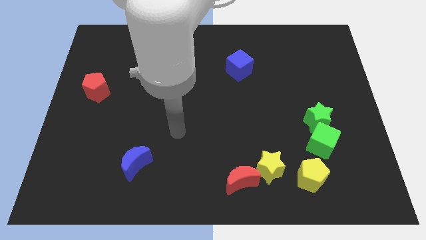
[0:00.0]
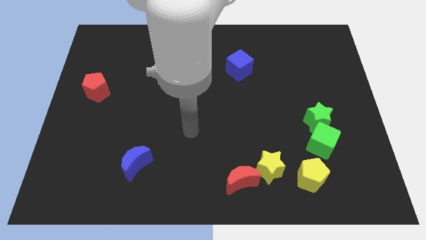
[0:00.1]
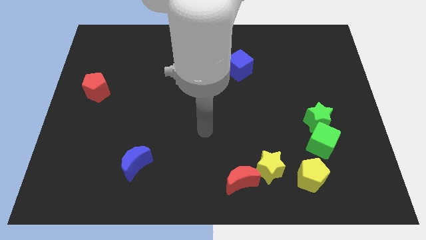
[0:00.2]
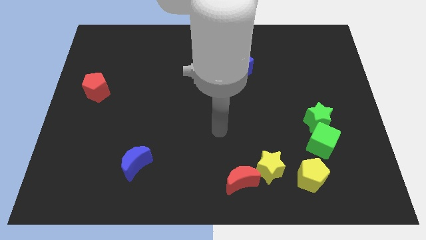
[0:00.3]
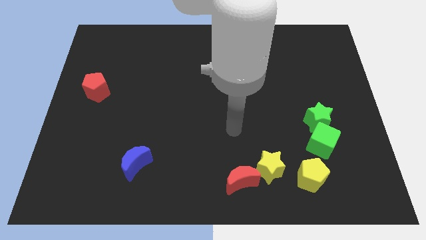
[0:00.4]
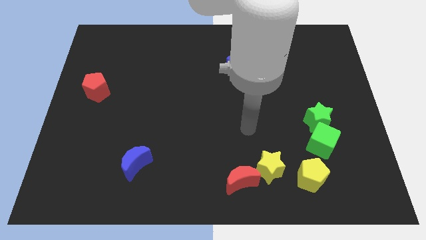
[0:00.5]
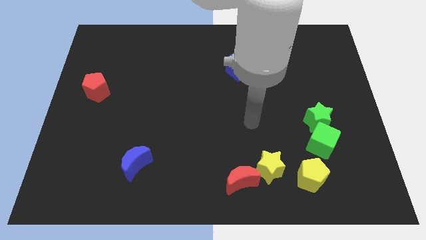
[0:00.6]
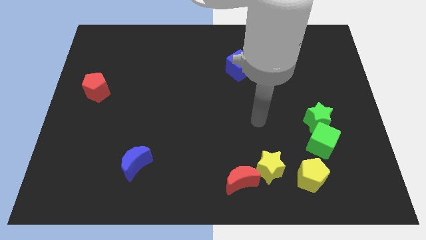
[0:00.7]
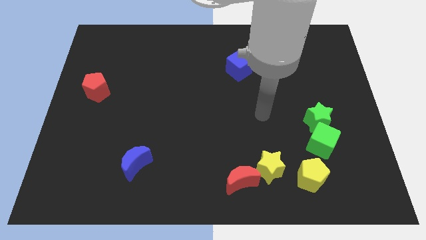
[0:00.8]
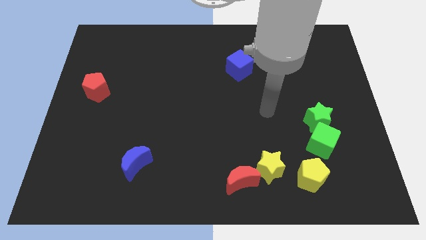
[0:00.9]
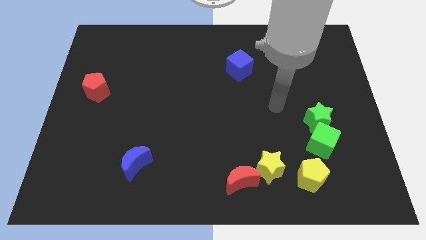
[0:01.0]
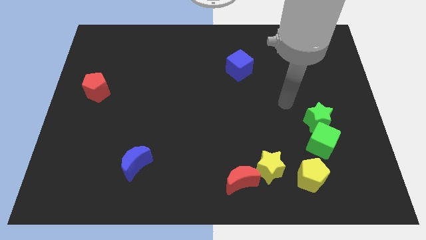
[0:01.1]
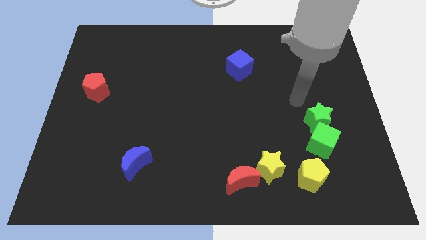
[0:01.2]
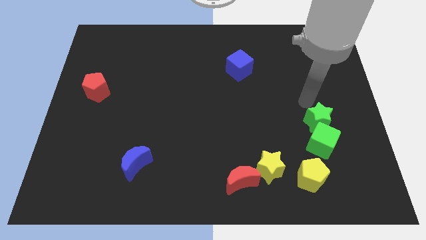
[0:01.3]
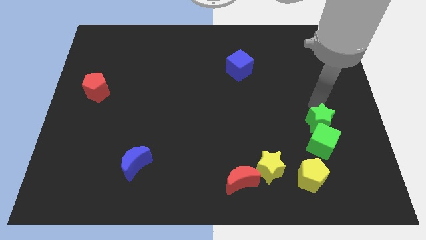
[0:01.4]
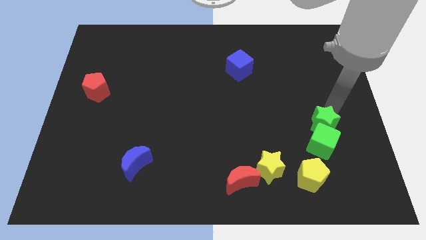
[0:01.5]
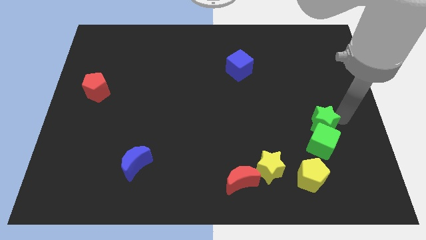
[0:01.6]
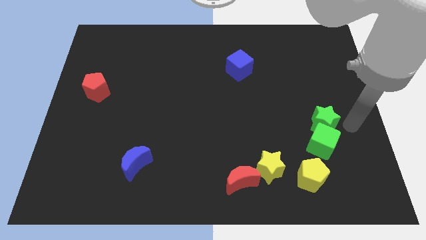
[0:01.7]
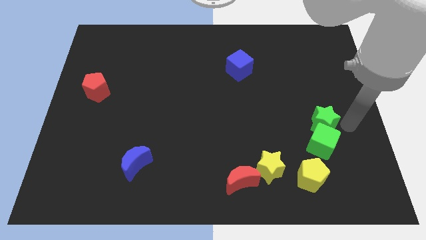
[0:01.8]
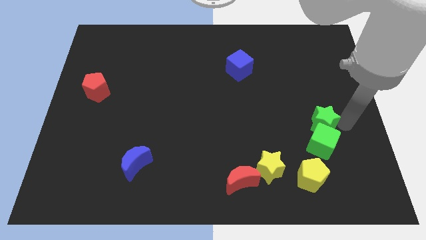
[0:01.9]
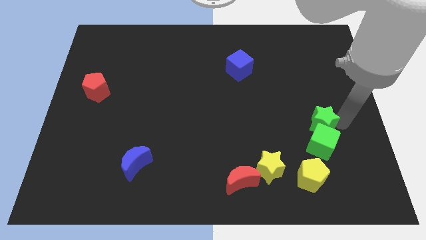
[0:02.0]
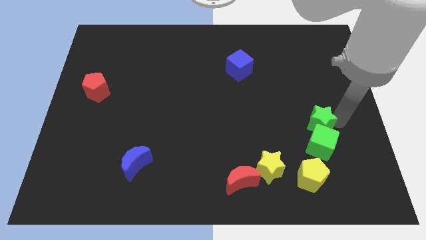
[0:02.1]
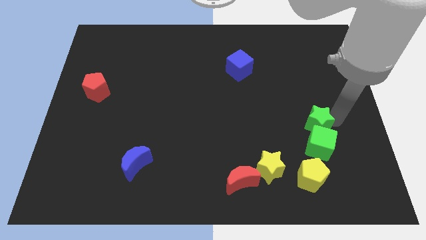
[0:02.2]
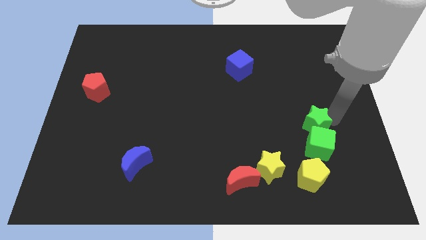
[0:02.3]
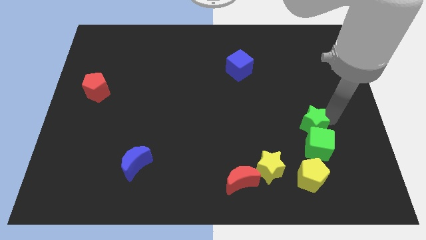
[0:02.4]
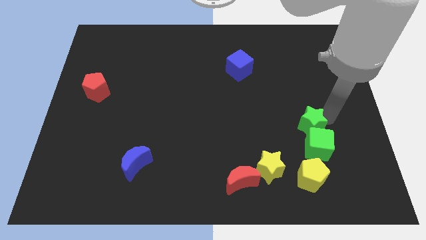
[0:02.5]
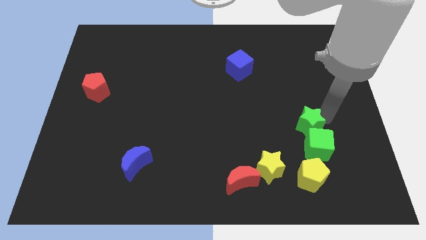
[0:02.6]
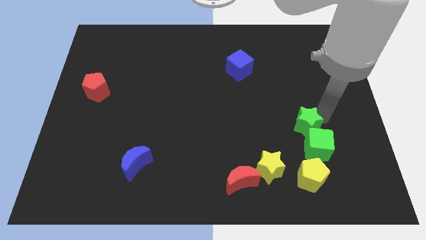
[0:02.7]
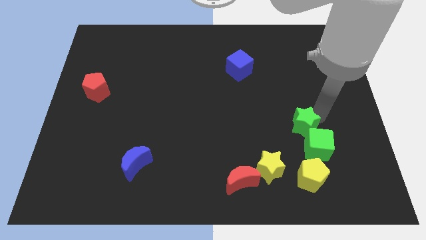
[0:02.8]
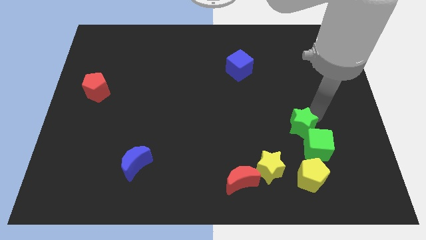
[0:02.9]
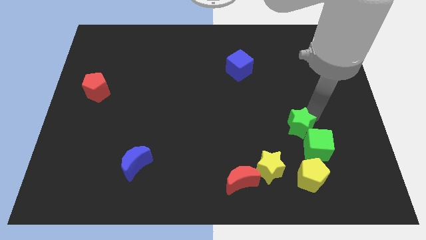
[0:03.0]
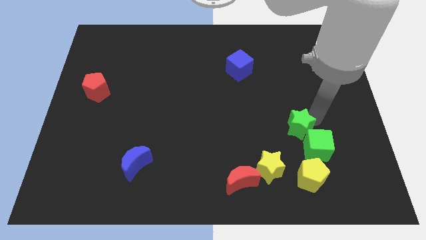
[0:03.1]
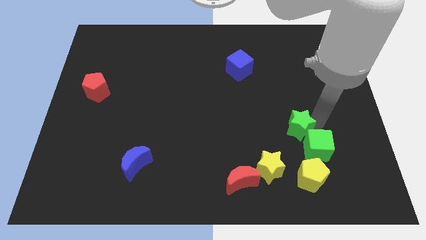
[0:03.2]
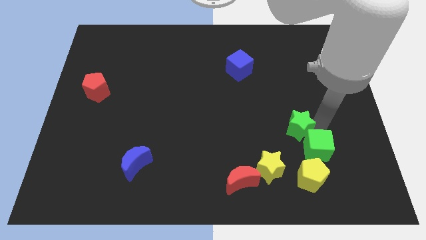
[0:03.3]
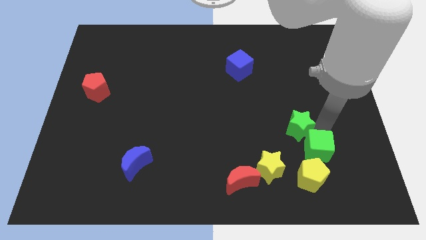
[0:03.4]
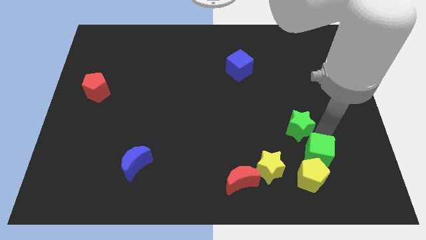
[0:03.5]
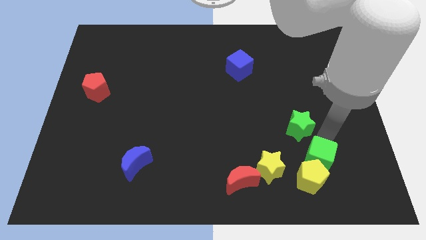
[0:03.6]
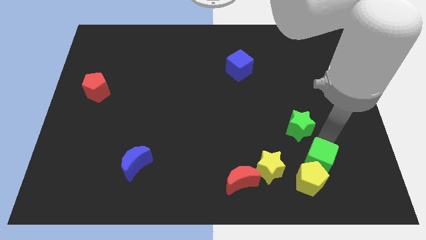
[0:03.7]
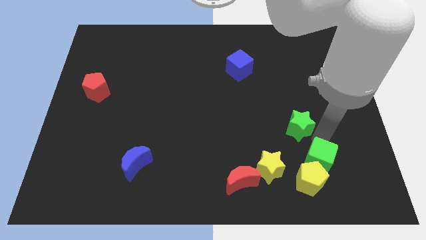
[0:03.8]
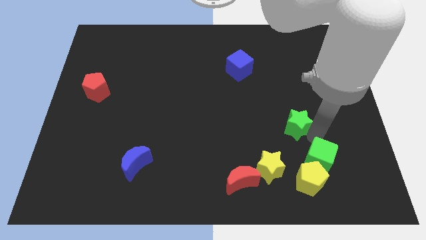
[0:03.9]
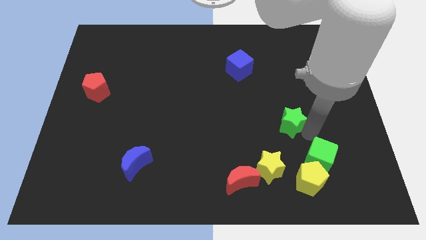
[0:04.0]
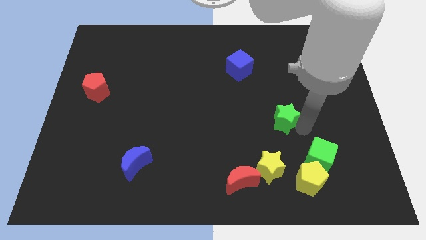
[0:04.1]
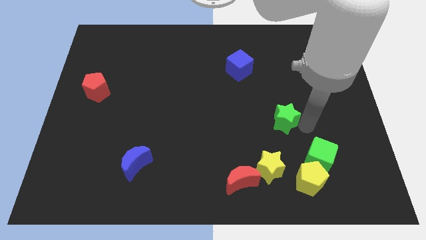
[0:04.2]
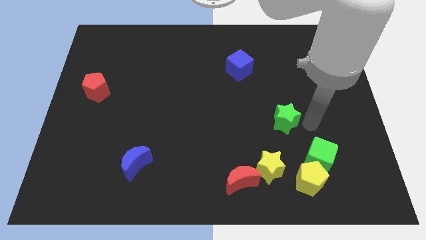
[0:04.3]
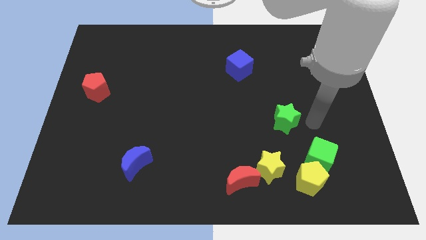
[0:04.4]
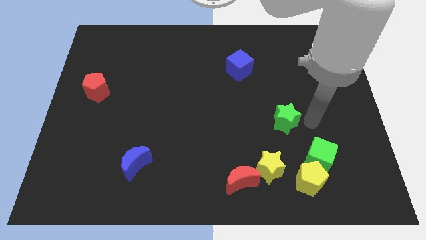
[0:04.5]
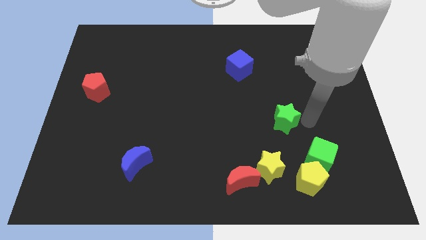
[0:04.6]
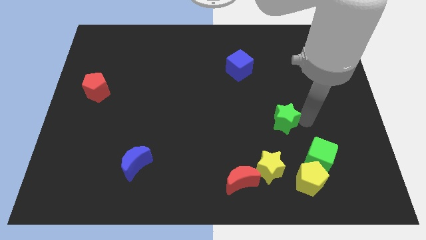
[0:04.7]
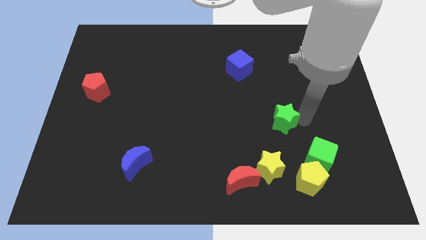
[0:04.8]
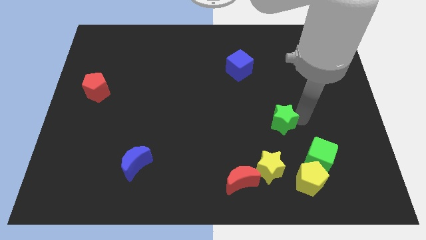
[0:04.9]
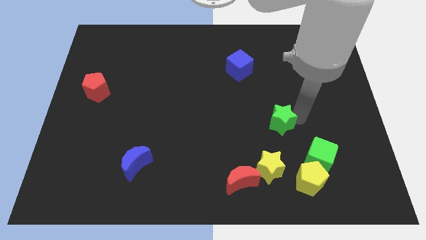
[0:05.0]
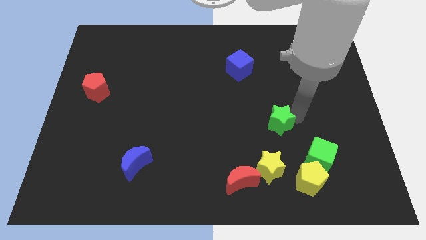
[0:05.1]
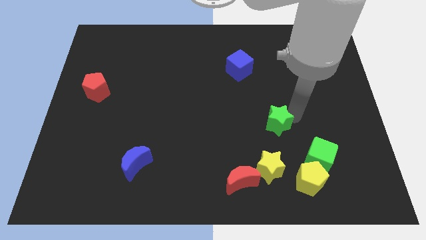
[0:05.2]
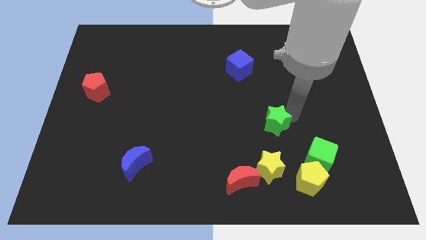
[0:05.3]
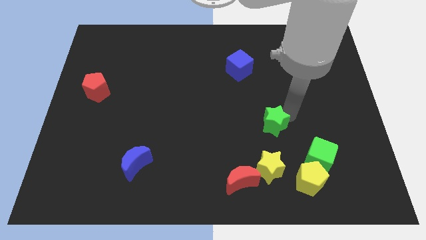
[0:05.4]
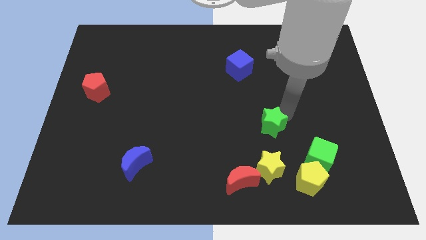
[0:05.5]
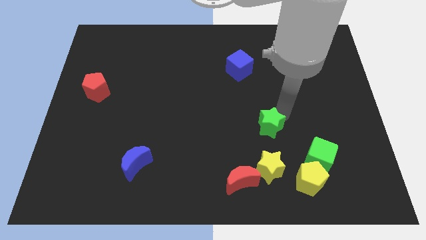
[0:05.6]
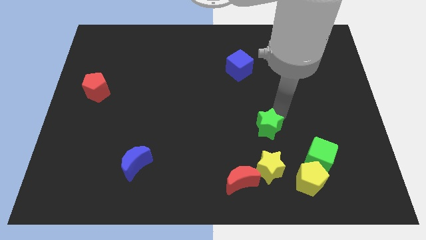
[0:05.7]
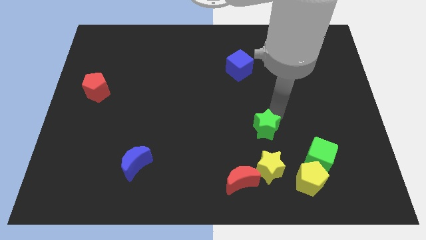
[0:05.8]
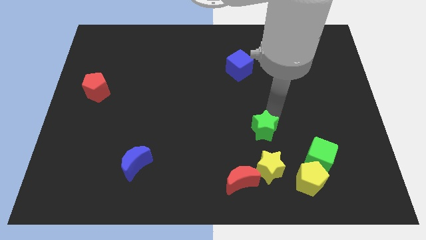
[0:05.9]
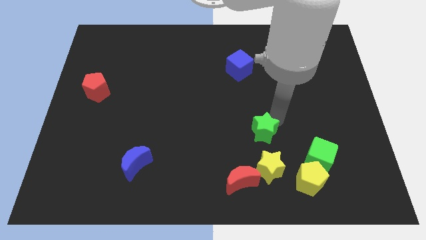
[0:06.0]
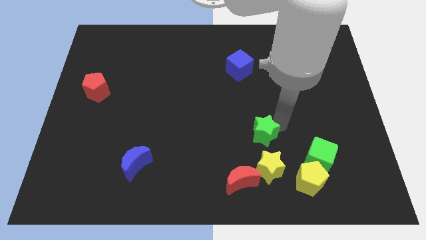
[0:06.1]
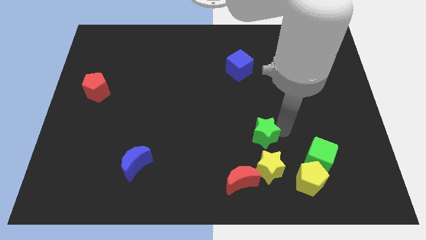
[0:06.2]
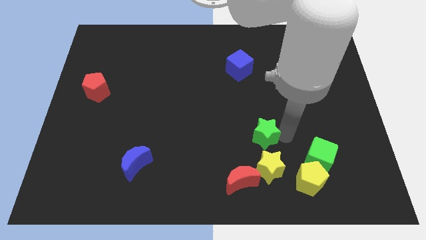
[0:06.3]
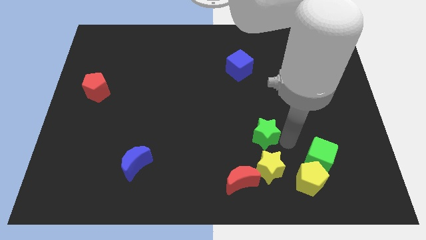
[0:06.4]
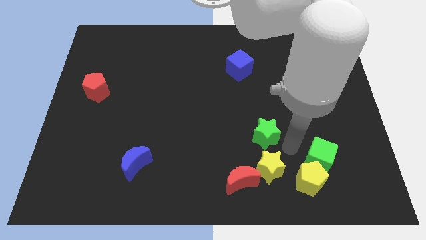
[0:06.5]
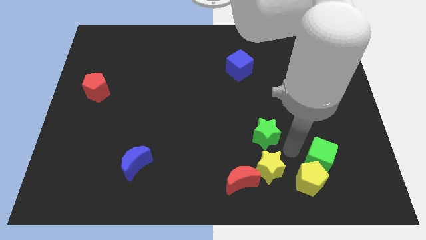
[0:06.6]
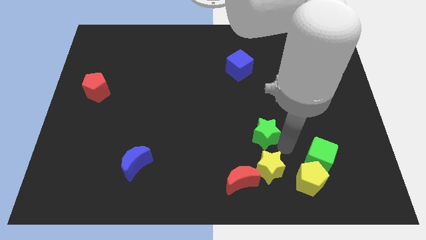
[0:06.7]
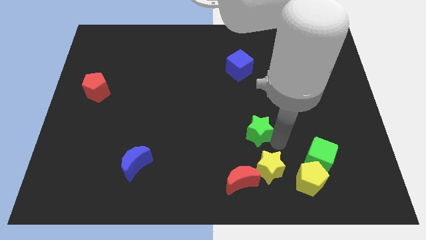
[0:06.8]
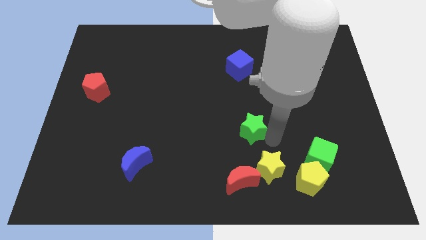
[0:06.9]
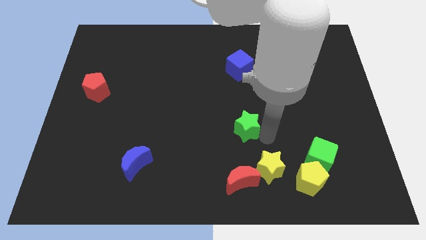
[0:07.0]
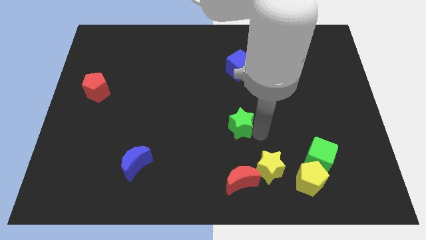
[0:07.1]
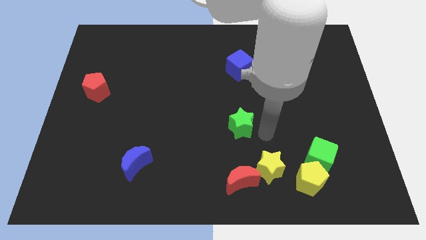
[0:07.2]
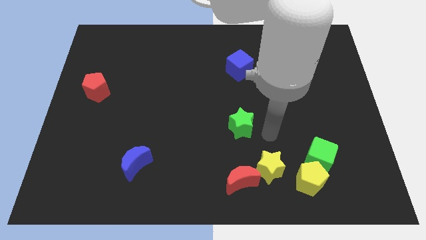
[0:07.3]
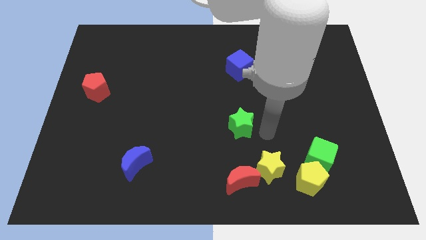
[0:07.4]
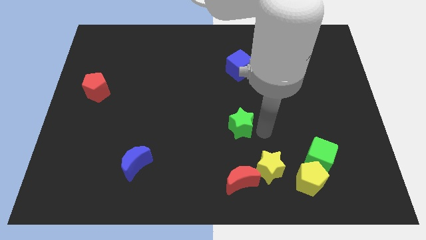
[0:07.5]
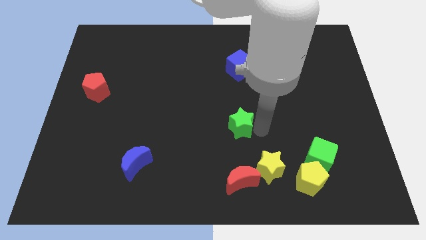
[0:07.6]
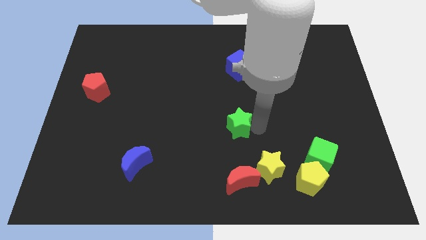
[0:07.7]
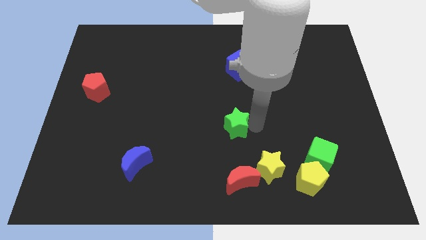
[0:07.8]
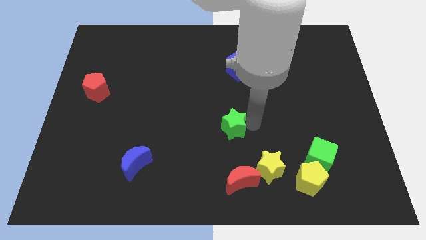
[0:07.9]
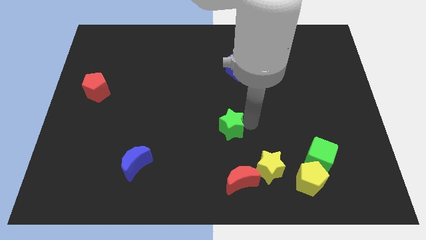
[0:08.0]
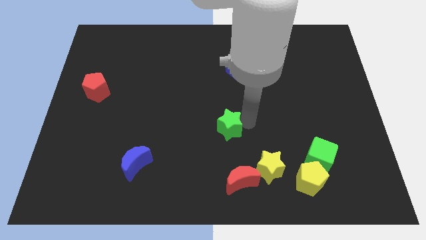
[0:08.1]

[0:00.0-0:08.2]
push the green star to the left
